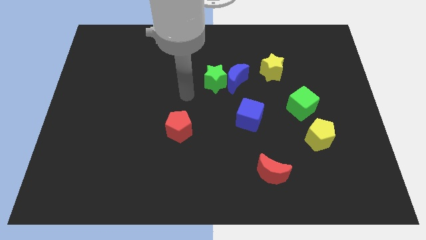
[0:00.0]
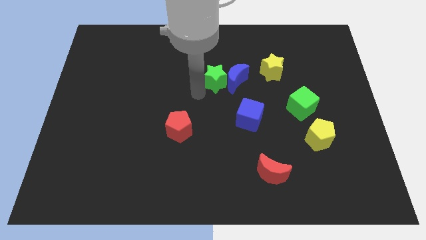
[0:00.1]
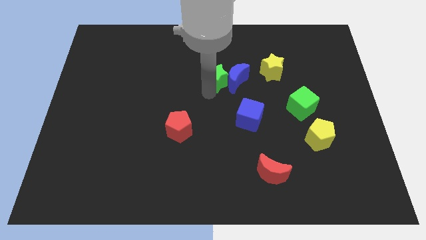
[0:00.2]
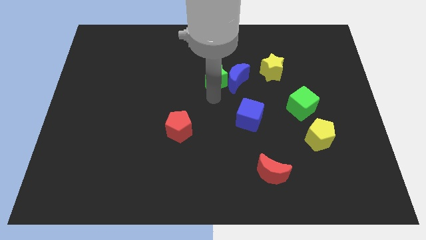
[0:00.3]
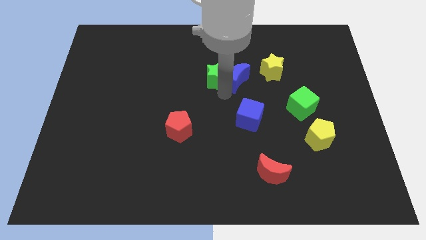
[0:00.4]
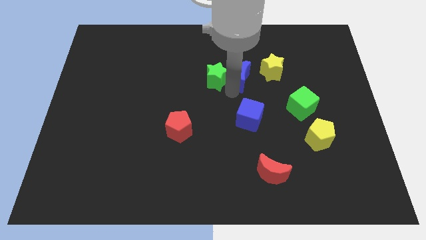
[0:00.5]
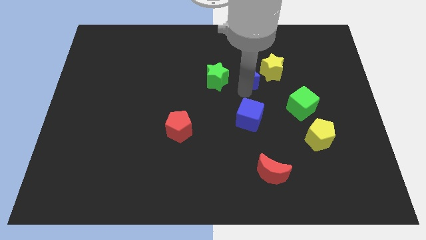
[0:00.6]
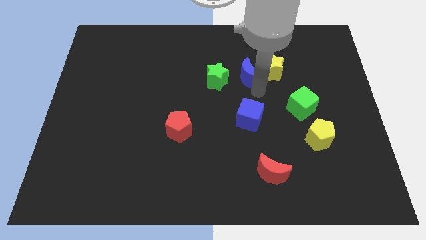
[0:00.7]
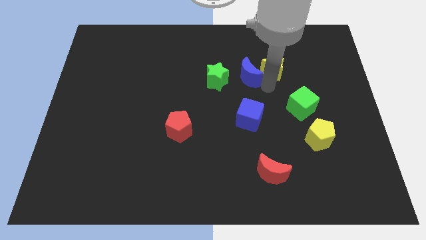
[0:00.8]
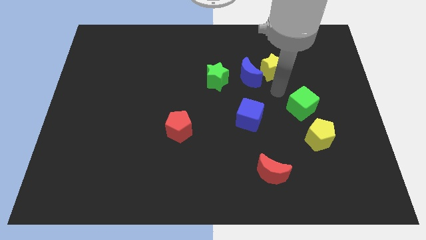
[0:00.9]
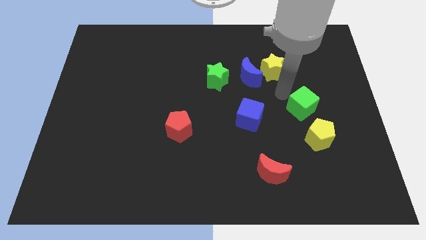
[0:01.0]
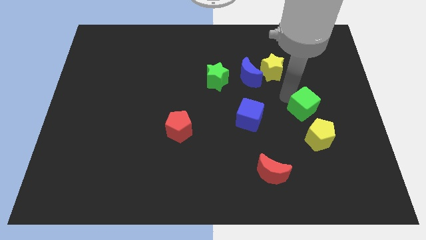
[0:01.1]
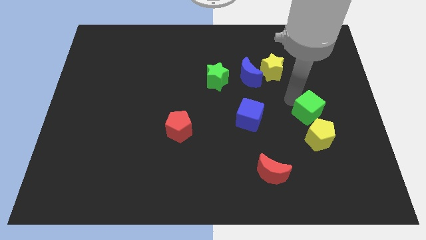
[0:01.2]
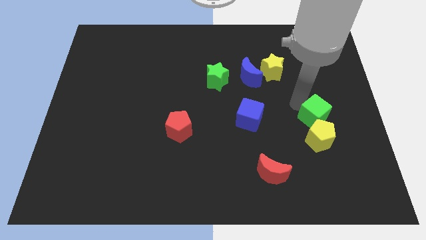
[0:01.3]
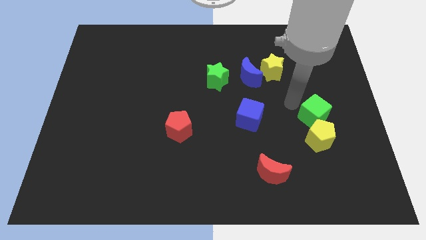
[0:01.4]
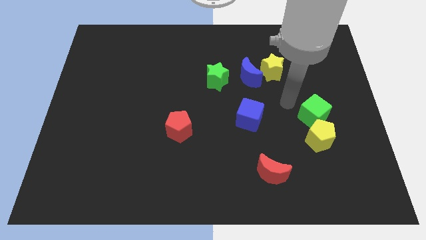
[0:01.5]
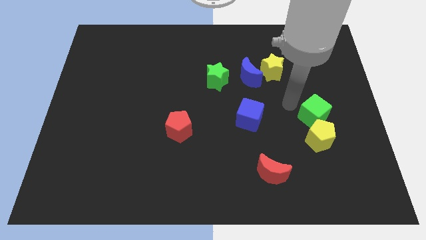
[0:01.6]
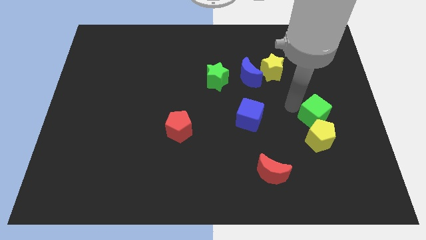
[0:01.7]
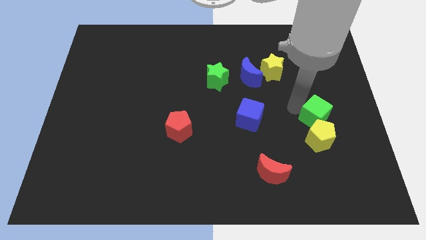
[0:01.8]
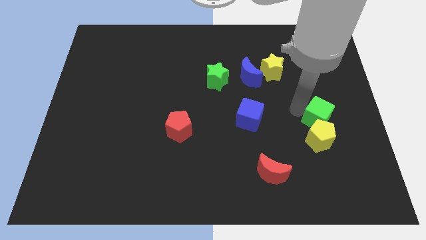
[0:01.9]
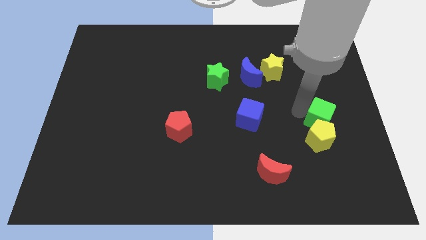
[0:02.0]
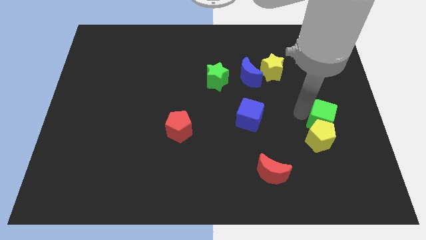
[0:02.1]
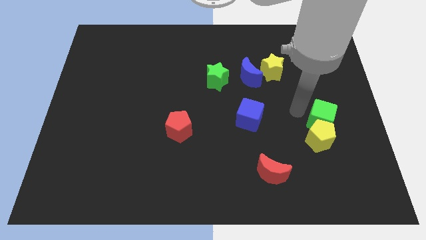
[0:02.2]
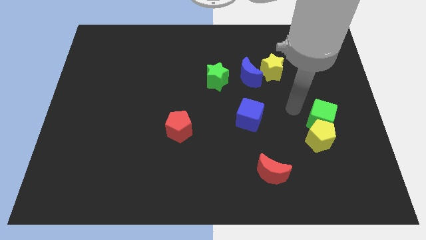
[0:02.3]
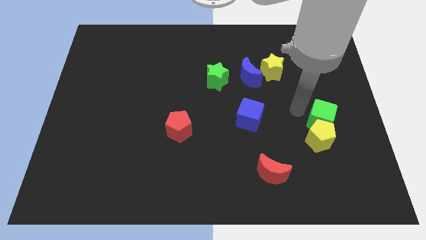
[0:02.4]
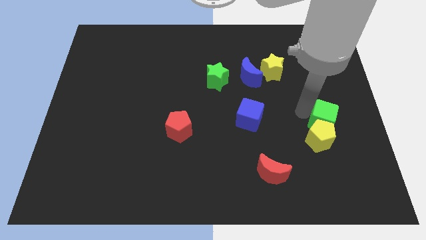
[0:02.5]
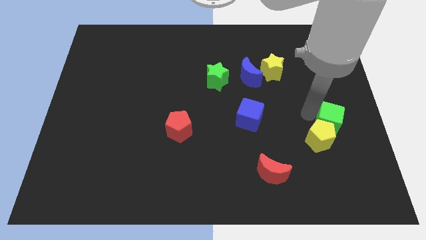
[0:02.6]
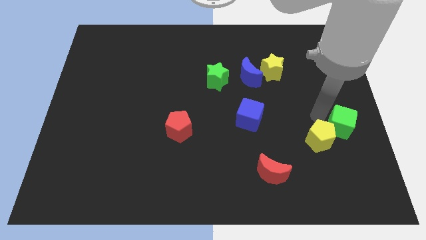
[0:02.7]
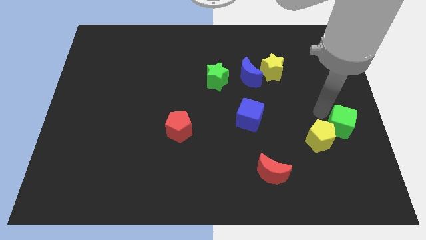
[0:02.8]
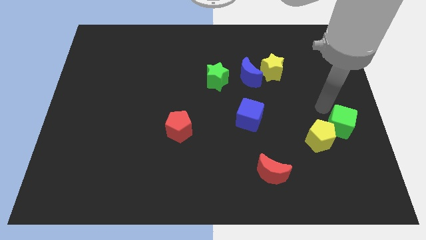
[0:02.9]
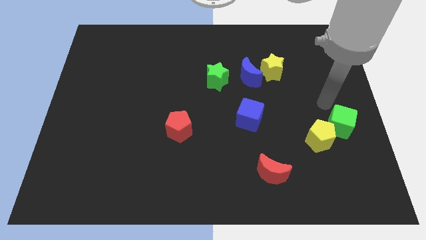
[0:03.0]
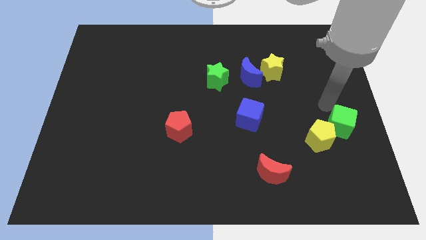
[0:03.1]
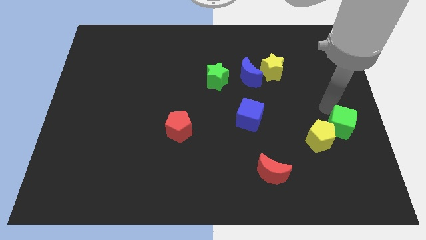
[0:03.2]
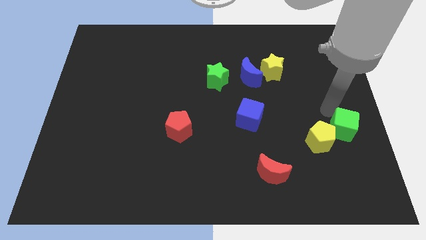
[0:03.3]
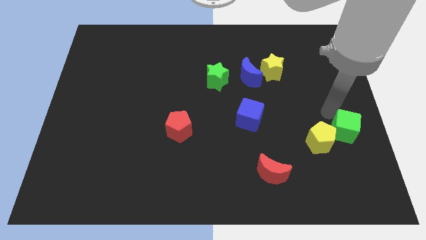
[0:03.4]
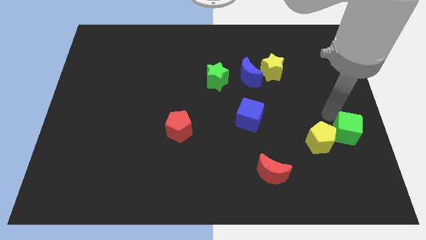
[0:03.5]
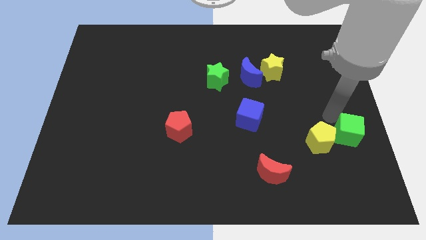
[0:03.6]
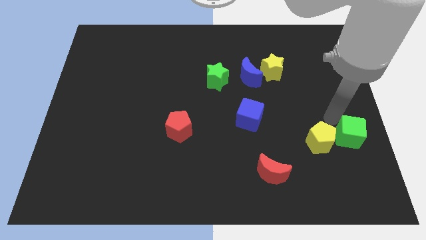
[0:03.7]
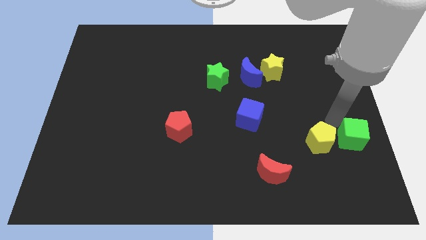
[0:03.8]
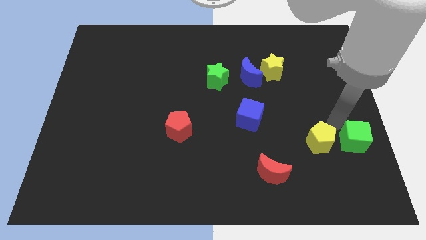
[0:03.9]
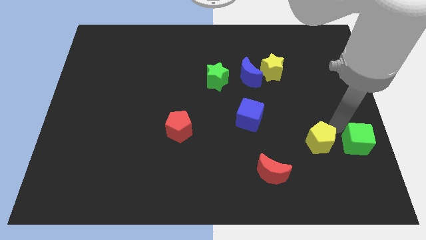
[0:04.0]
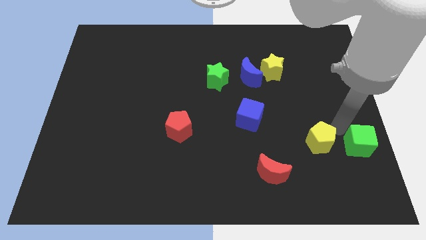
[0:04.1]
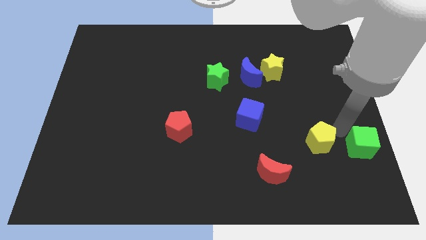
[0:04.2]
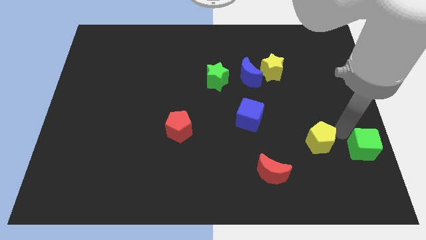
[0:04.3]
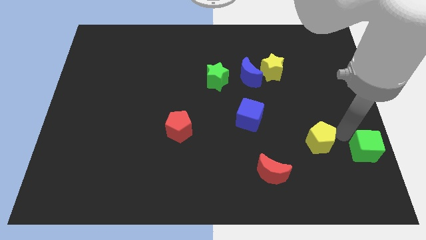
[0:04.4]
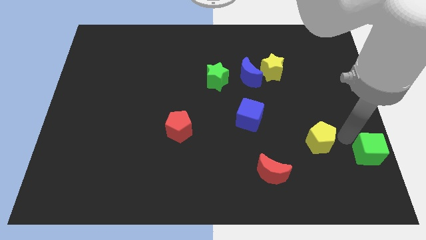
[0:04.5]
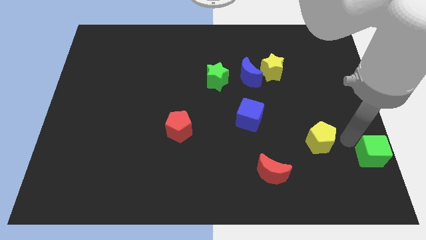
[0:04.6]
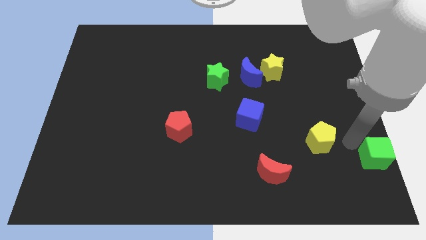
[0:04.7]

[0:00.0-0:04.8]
slide the green cube to the bottom right

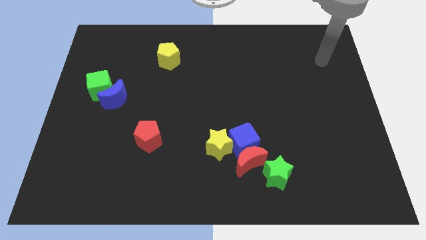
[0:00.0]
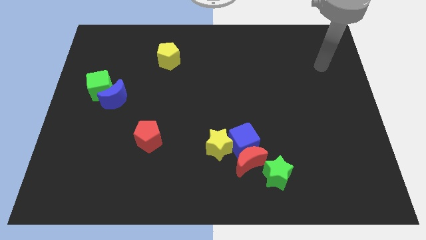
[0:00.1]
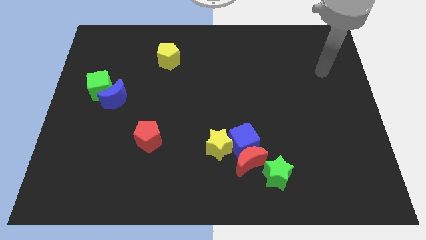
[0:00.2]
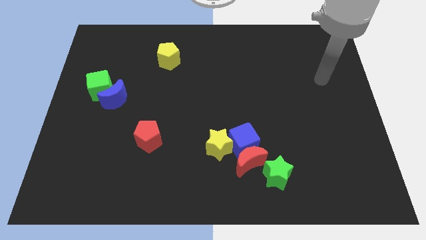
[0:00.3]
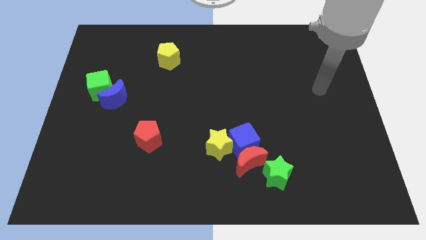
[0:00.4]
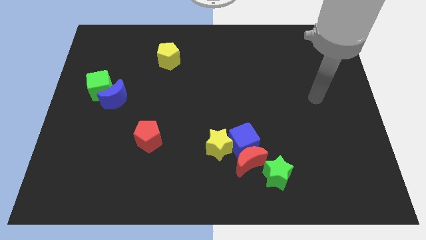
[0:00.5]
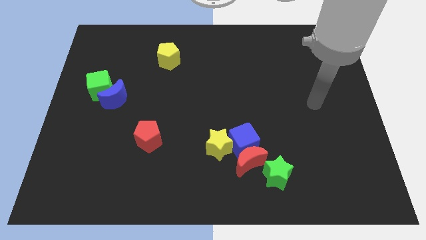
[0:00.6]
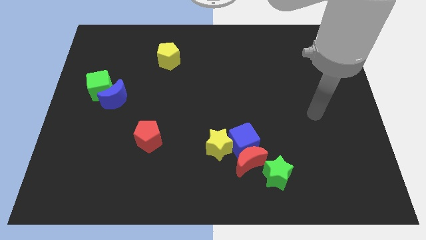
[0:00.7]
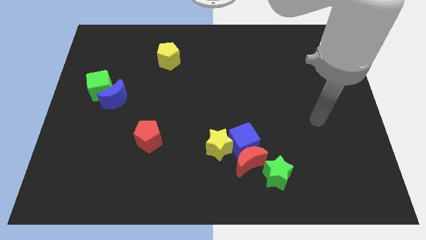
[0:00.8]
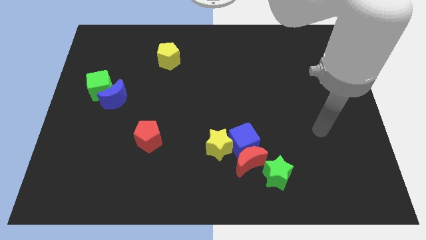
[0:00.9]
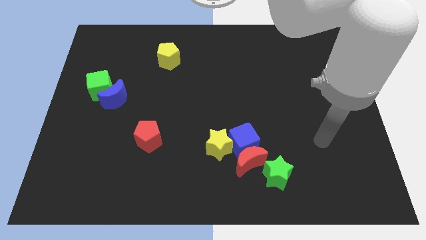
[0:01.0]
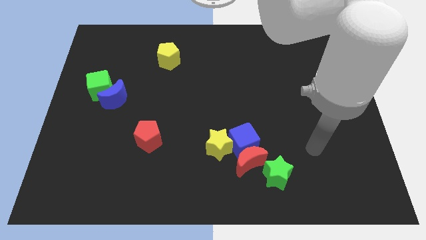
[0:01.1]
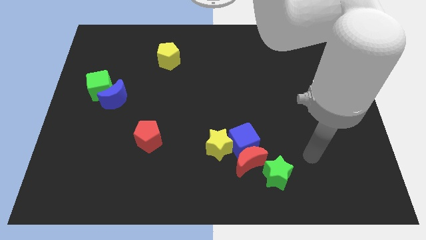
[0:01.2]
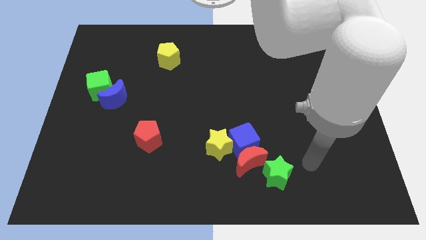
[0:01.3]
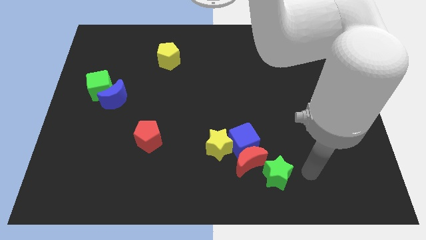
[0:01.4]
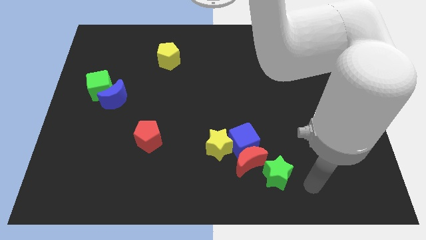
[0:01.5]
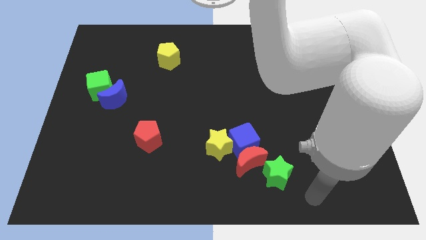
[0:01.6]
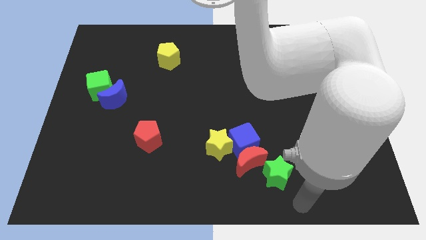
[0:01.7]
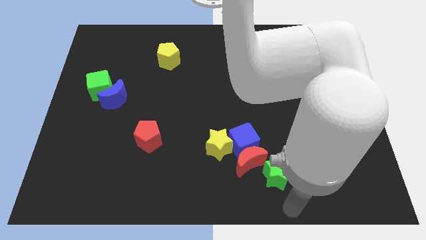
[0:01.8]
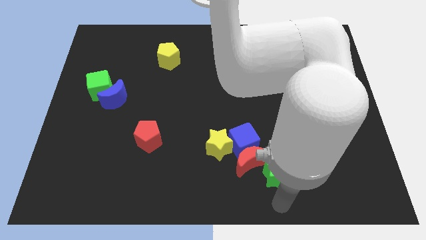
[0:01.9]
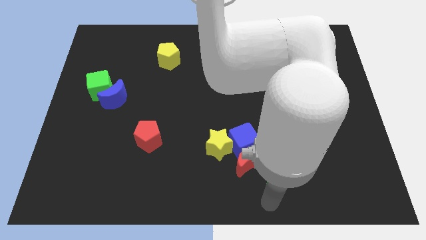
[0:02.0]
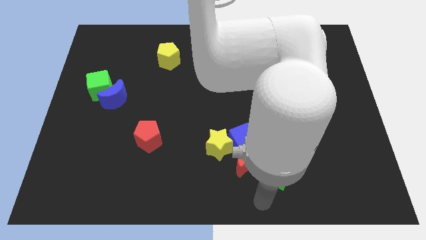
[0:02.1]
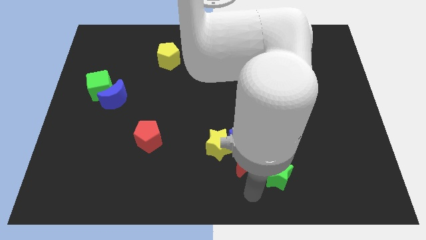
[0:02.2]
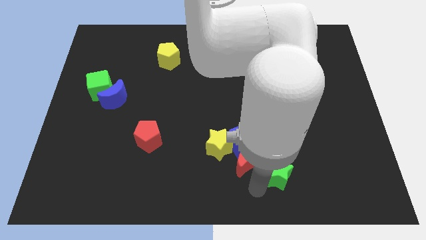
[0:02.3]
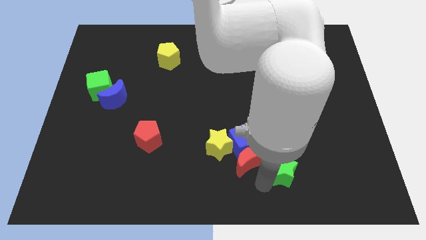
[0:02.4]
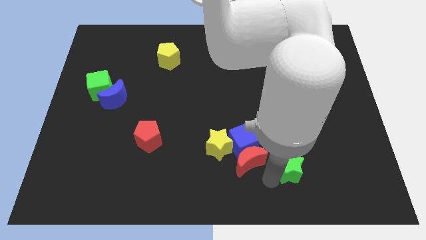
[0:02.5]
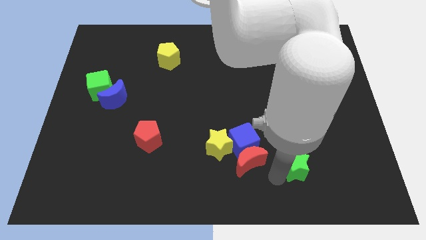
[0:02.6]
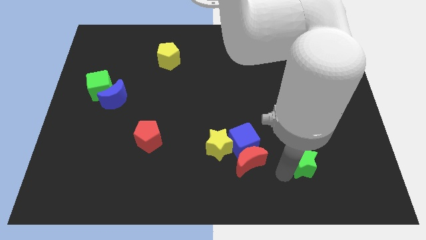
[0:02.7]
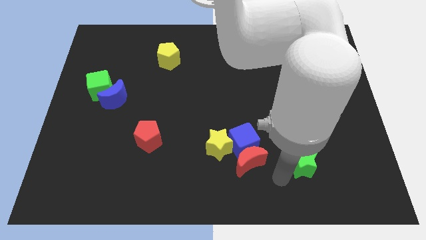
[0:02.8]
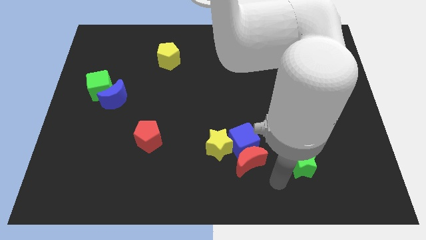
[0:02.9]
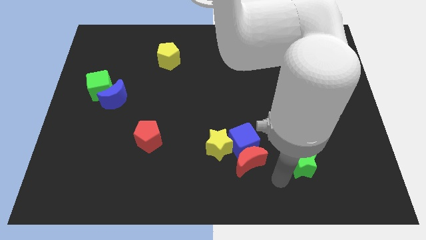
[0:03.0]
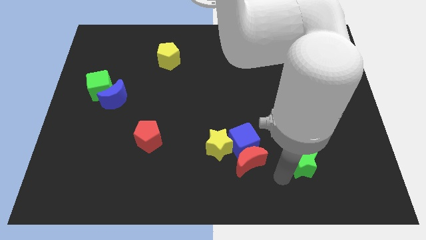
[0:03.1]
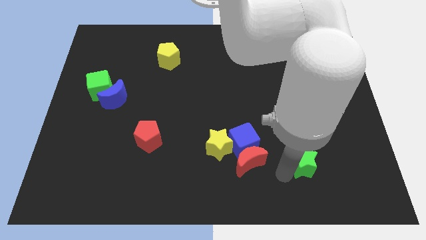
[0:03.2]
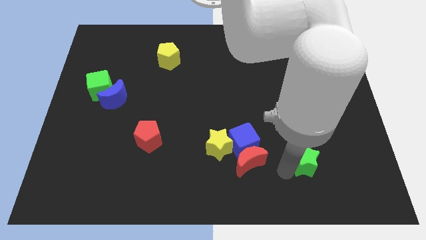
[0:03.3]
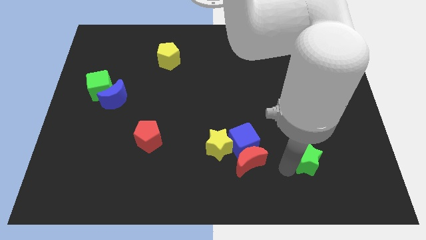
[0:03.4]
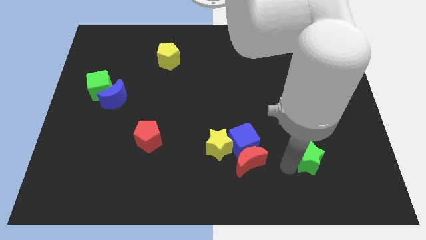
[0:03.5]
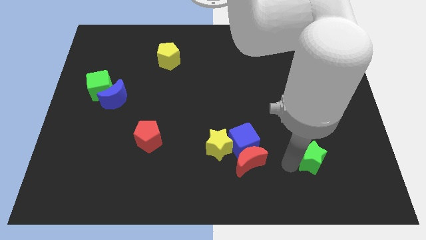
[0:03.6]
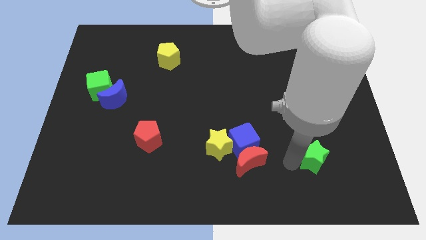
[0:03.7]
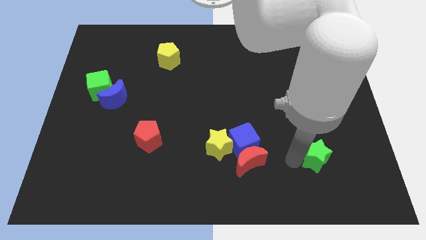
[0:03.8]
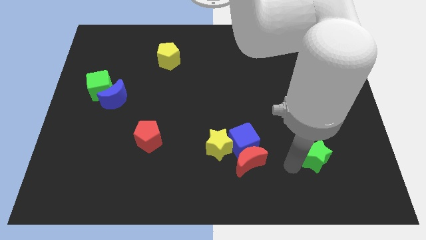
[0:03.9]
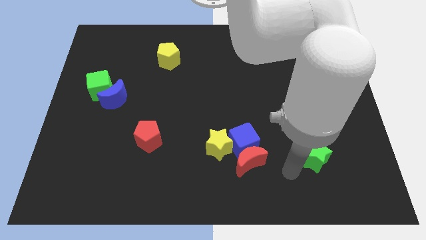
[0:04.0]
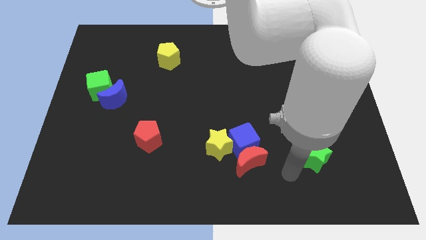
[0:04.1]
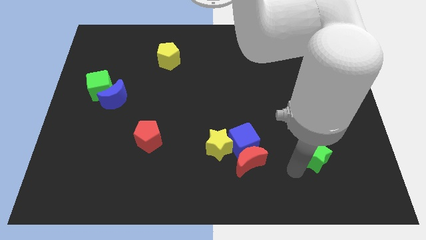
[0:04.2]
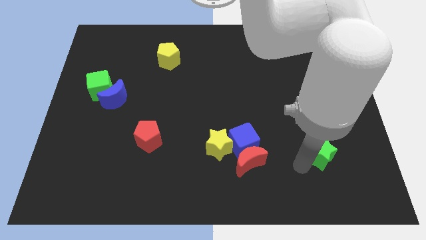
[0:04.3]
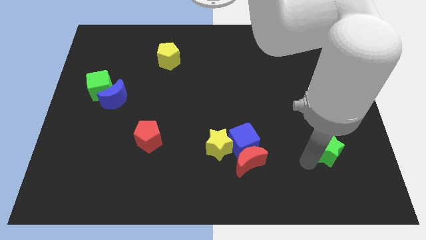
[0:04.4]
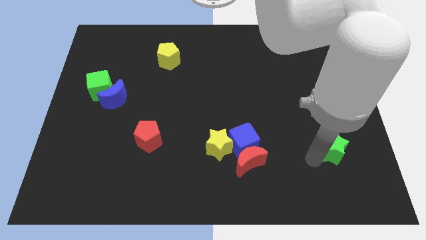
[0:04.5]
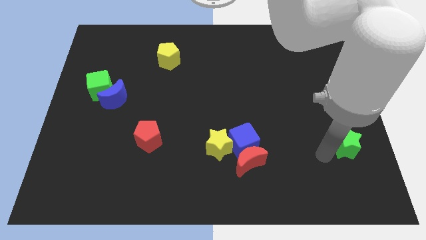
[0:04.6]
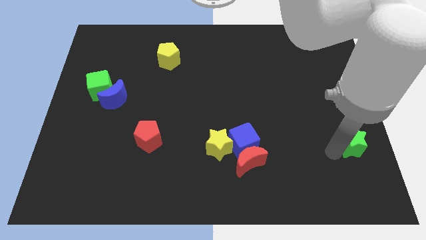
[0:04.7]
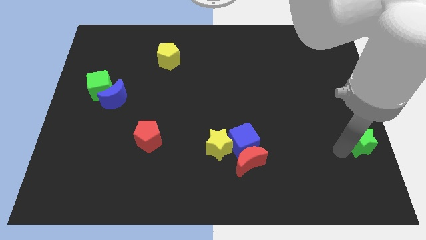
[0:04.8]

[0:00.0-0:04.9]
slide the green star to the right side of the board
